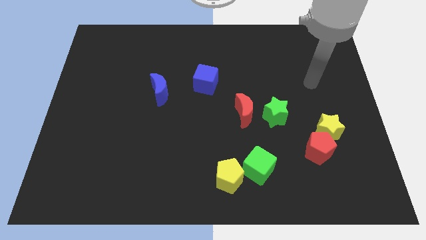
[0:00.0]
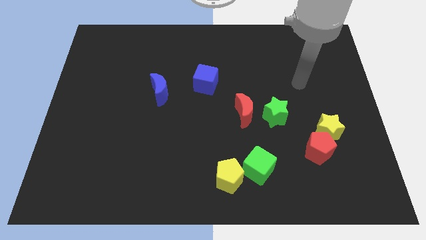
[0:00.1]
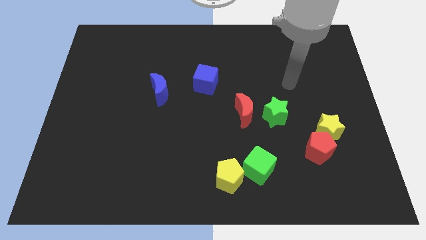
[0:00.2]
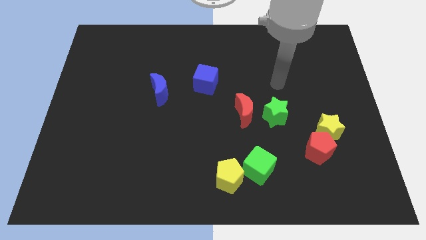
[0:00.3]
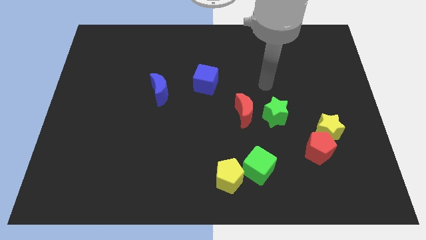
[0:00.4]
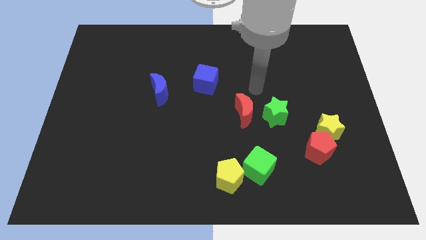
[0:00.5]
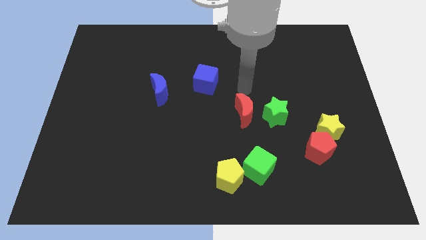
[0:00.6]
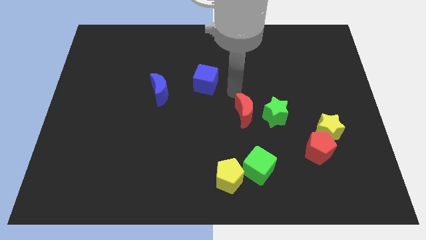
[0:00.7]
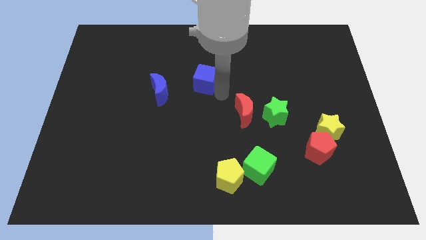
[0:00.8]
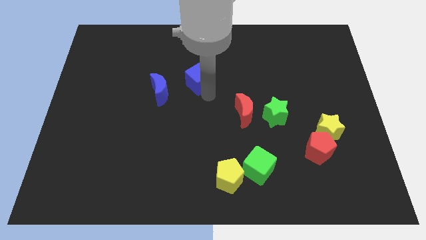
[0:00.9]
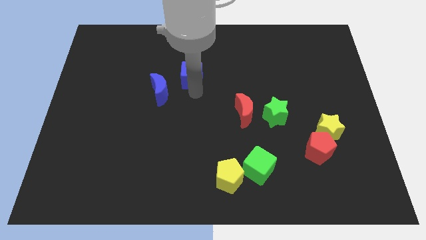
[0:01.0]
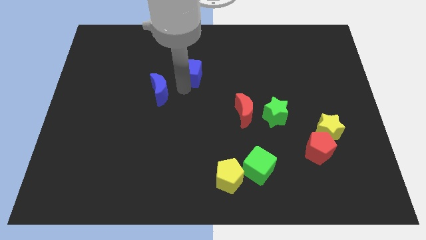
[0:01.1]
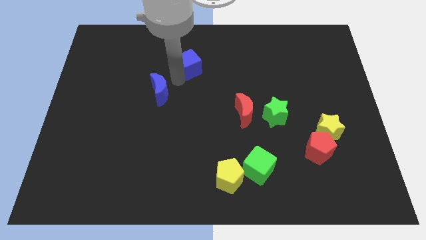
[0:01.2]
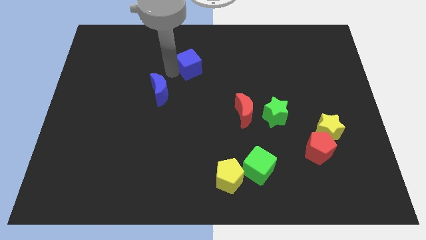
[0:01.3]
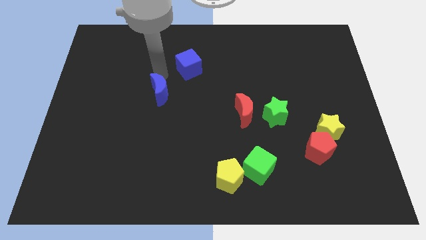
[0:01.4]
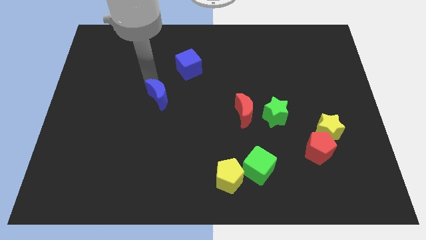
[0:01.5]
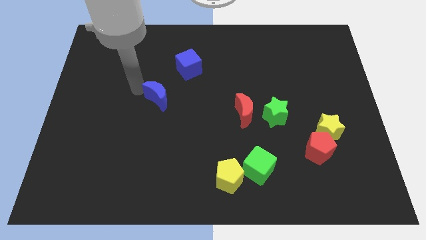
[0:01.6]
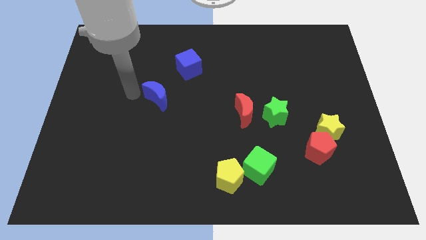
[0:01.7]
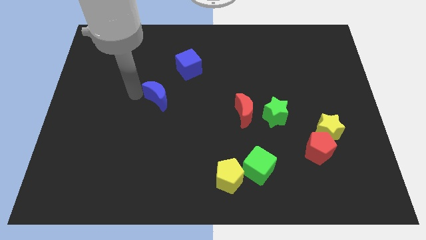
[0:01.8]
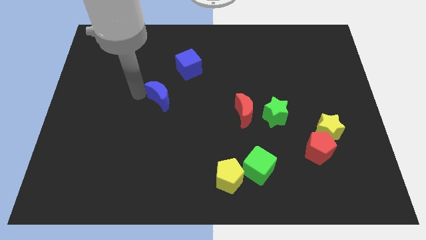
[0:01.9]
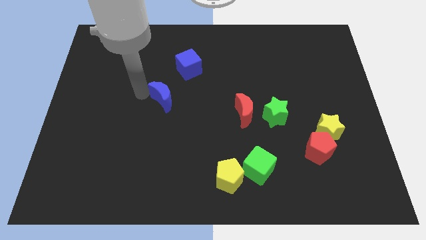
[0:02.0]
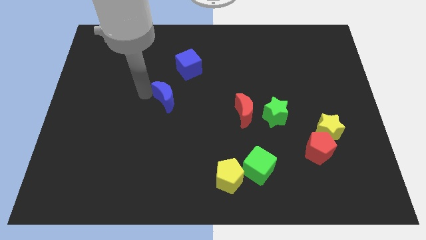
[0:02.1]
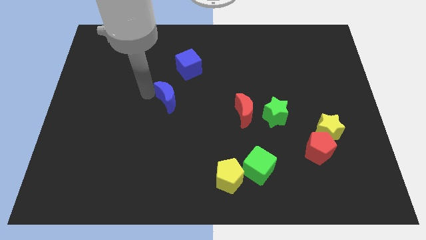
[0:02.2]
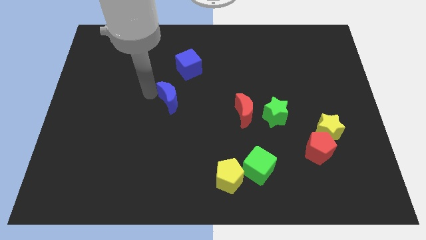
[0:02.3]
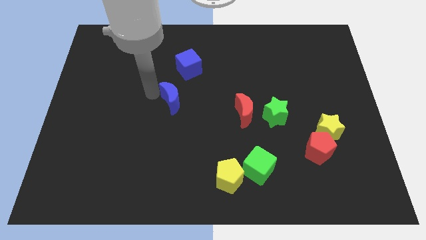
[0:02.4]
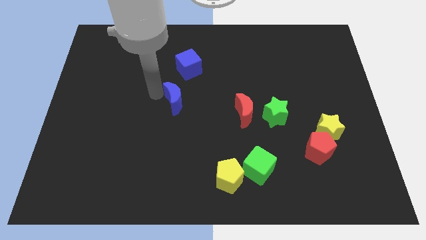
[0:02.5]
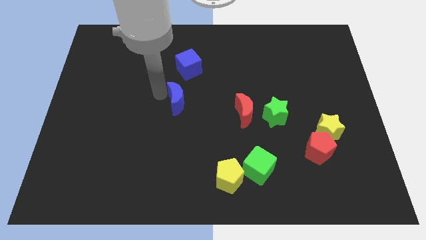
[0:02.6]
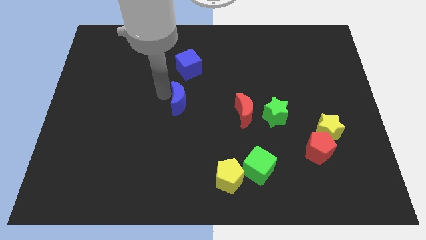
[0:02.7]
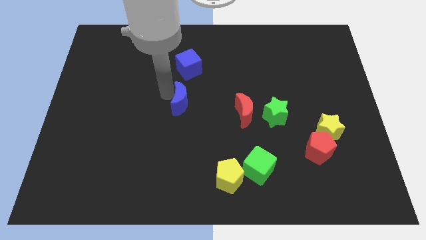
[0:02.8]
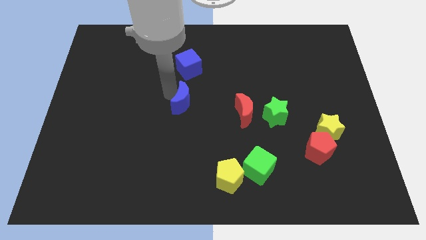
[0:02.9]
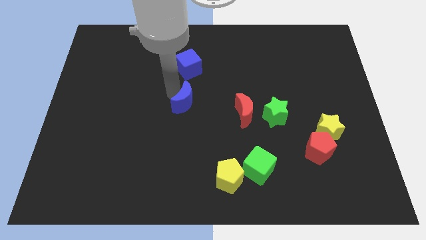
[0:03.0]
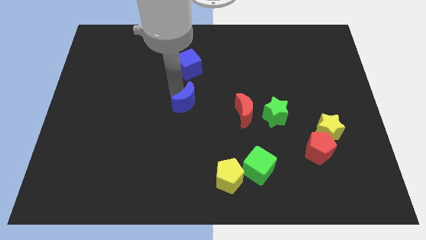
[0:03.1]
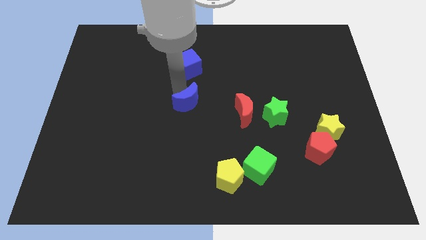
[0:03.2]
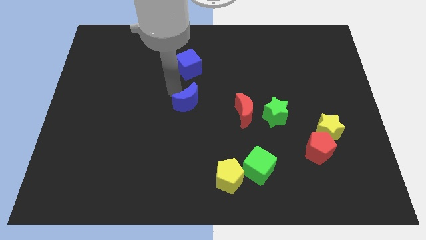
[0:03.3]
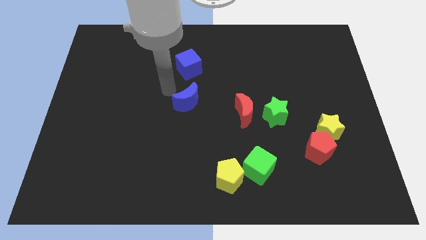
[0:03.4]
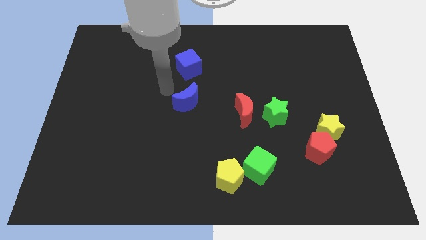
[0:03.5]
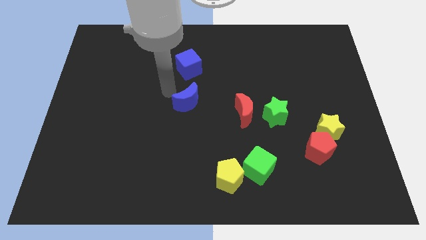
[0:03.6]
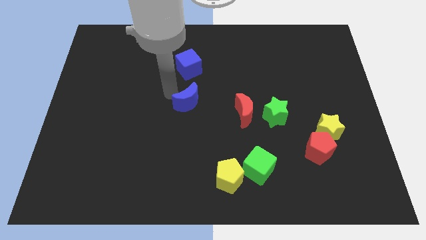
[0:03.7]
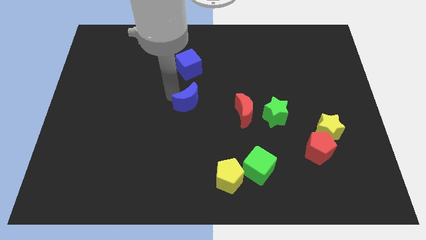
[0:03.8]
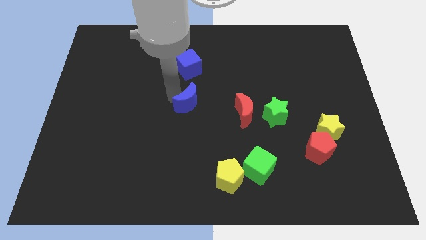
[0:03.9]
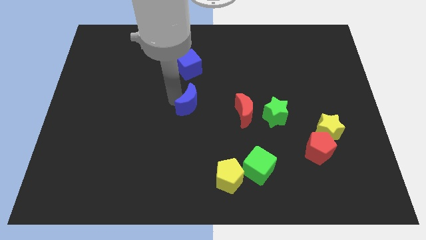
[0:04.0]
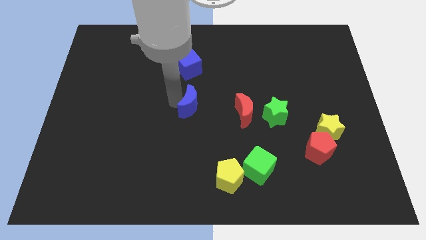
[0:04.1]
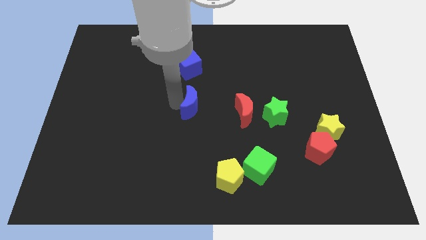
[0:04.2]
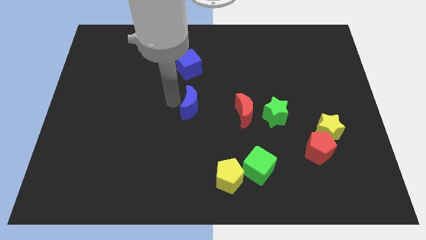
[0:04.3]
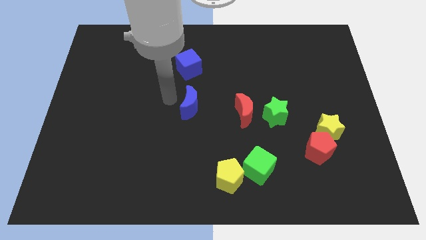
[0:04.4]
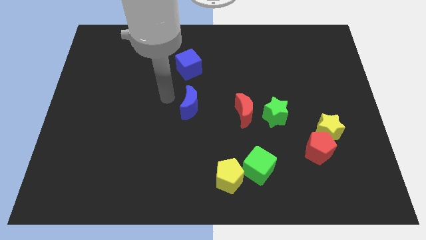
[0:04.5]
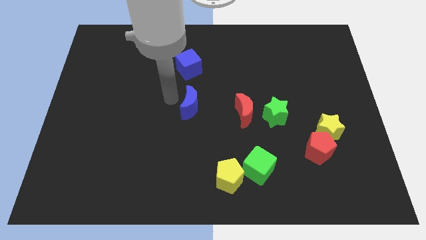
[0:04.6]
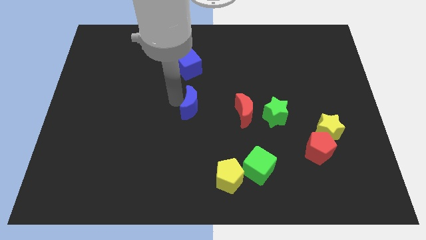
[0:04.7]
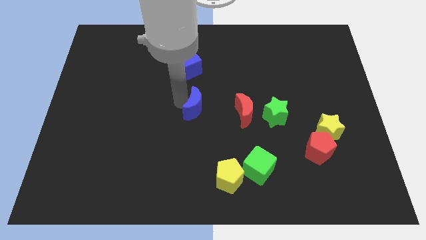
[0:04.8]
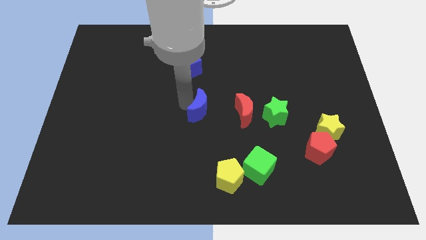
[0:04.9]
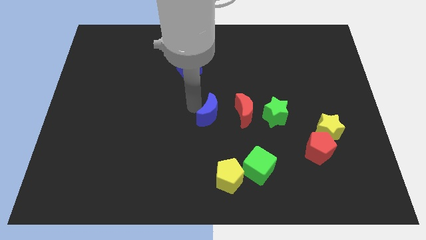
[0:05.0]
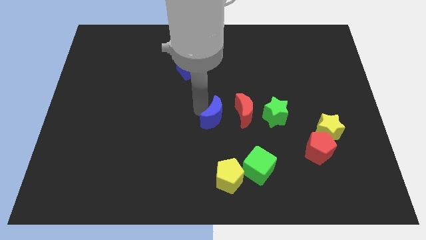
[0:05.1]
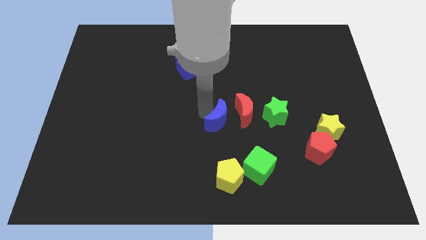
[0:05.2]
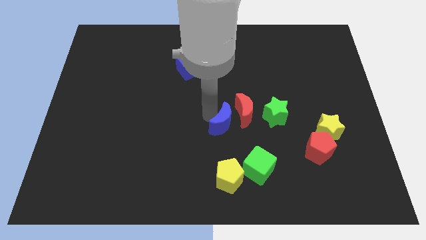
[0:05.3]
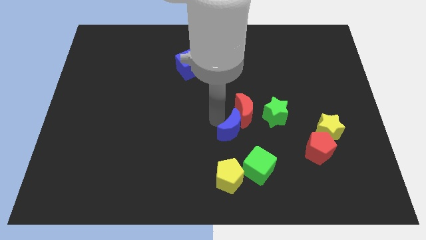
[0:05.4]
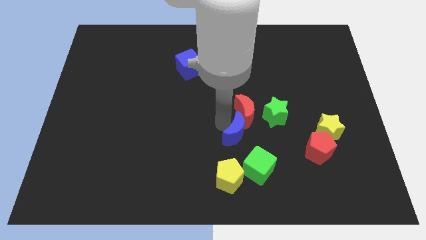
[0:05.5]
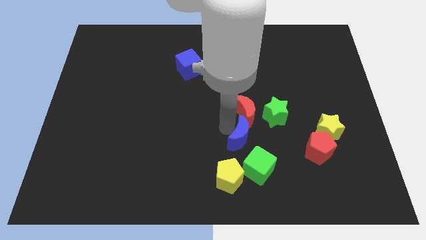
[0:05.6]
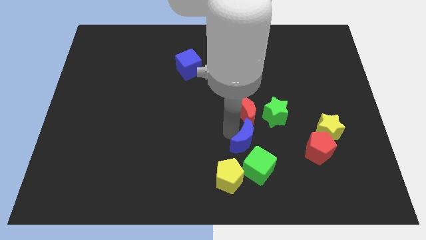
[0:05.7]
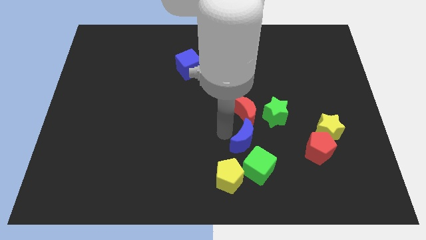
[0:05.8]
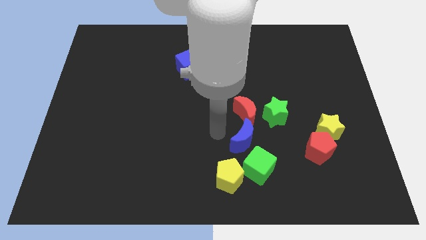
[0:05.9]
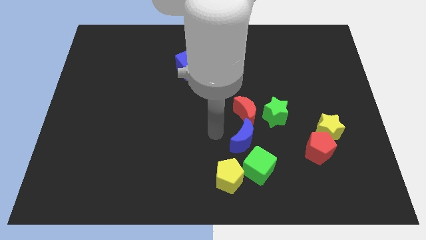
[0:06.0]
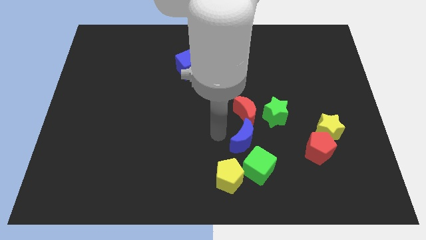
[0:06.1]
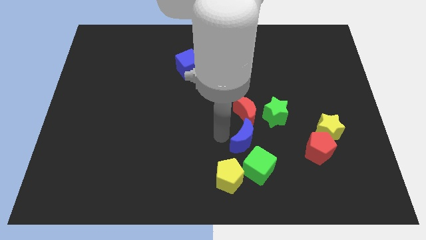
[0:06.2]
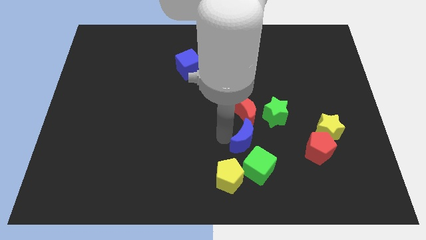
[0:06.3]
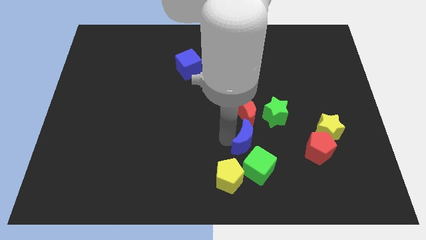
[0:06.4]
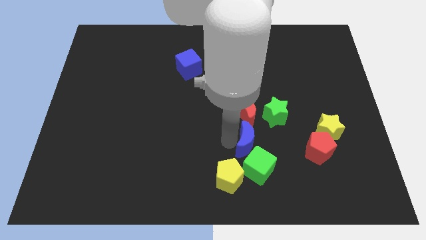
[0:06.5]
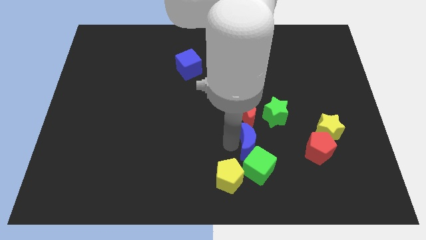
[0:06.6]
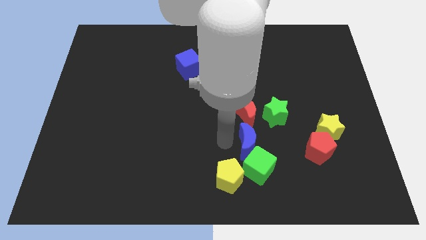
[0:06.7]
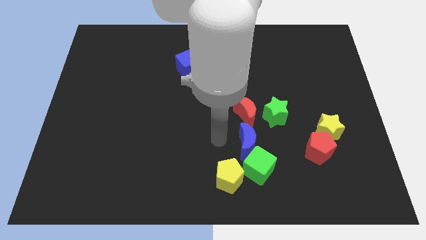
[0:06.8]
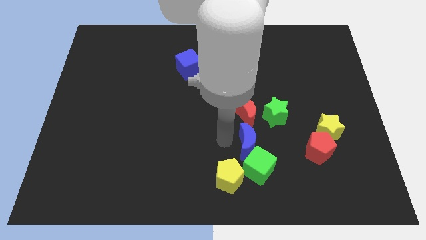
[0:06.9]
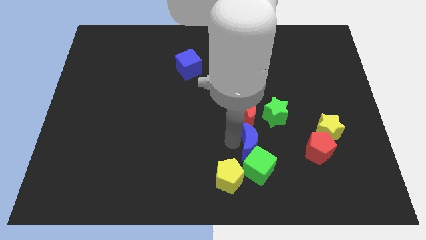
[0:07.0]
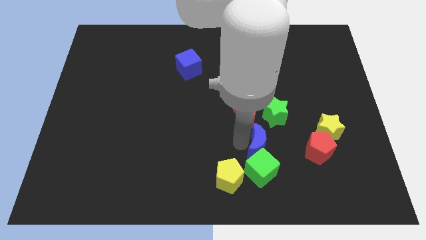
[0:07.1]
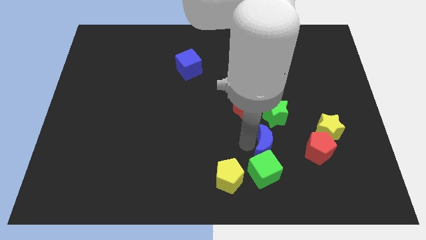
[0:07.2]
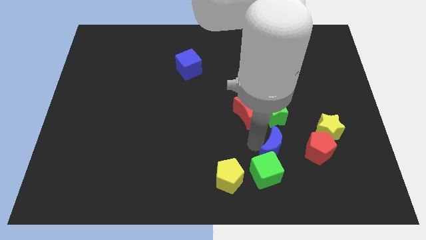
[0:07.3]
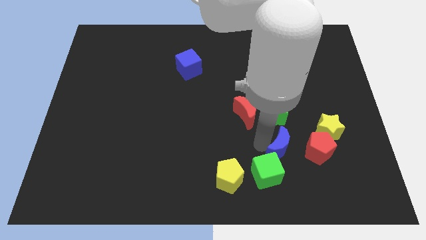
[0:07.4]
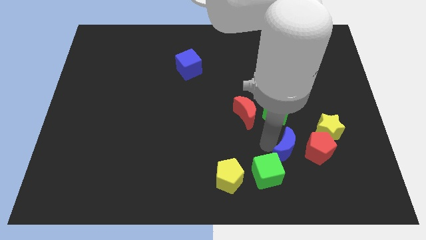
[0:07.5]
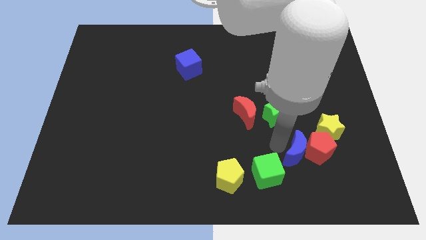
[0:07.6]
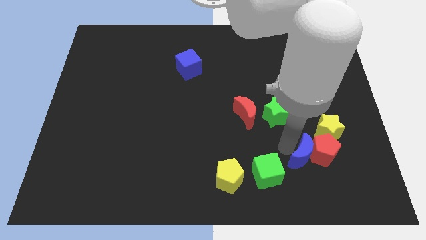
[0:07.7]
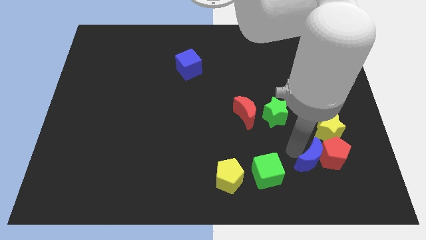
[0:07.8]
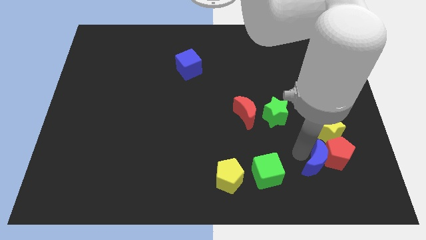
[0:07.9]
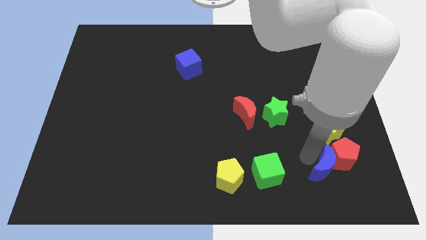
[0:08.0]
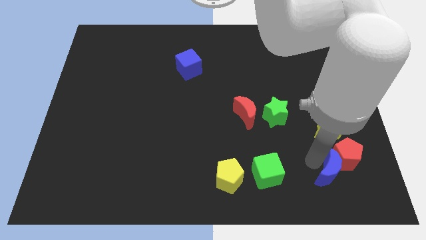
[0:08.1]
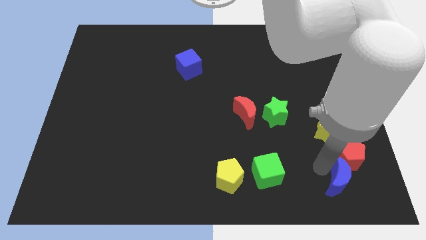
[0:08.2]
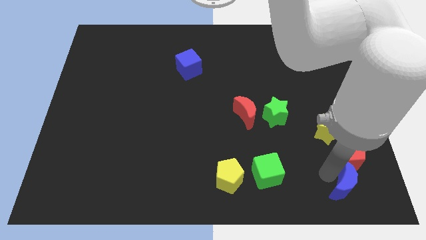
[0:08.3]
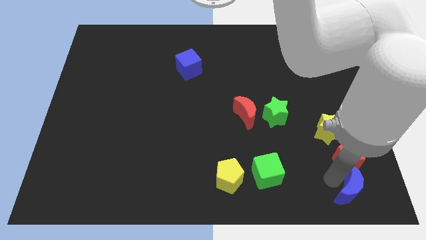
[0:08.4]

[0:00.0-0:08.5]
push the blue moon to the bottom right of the board
